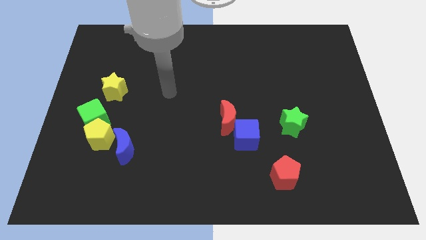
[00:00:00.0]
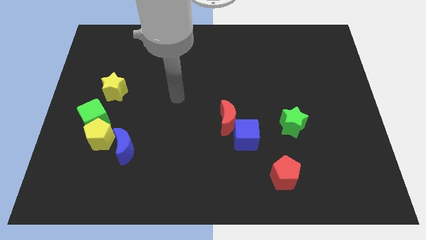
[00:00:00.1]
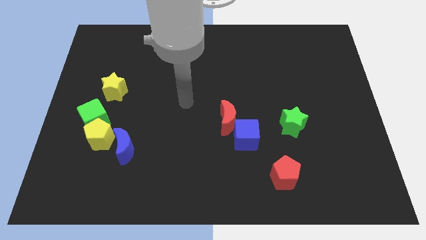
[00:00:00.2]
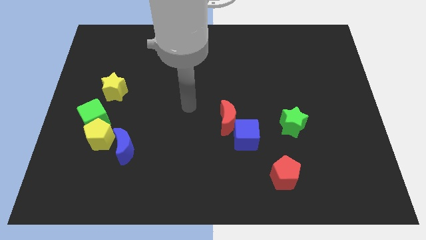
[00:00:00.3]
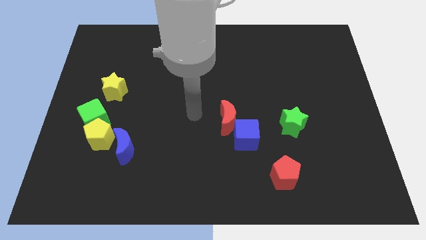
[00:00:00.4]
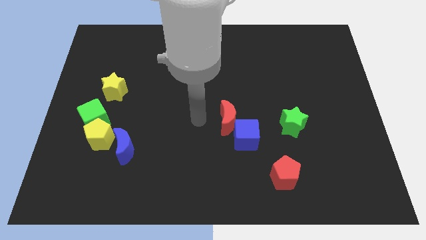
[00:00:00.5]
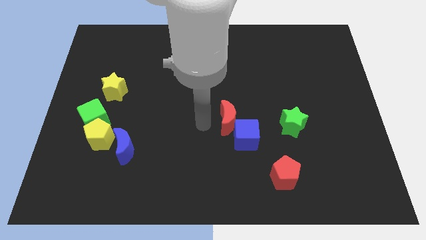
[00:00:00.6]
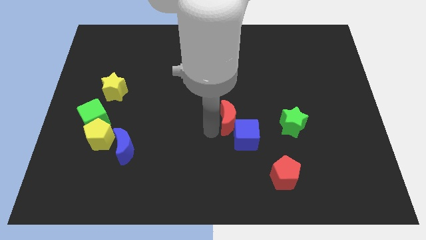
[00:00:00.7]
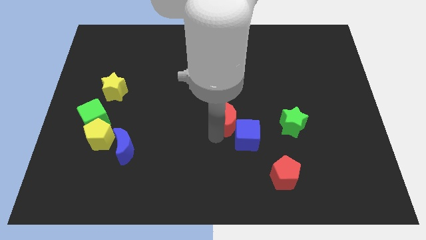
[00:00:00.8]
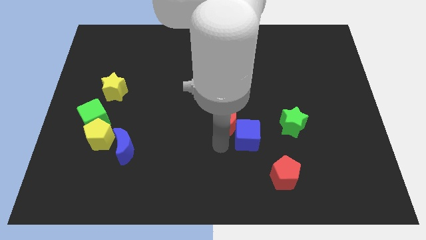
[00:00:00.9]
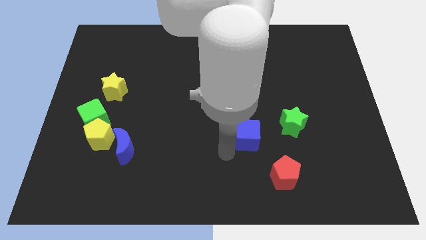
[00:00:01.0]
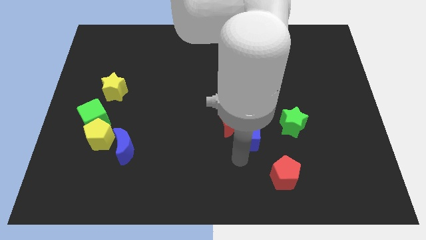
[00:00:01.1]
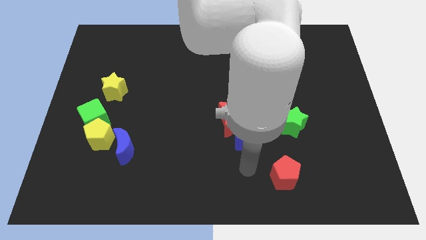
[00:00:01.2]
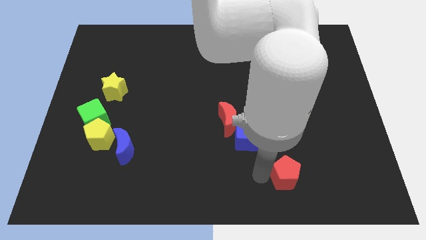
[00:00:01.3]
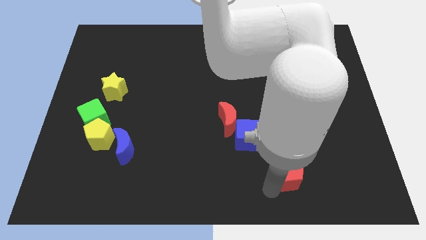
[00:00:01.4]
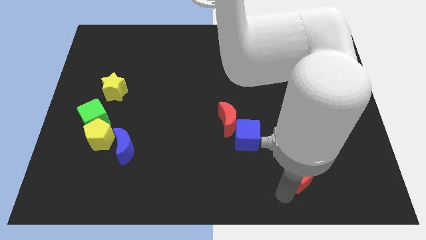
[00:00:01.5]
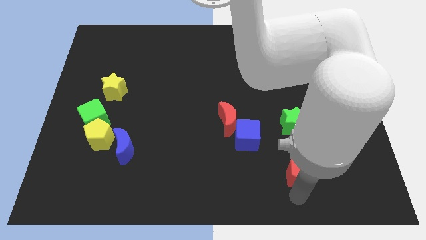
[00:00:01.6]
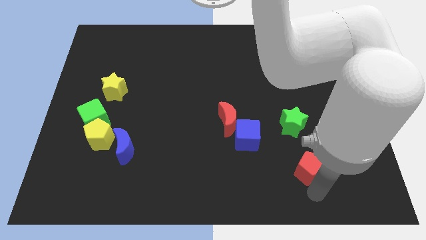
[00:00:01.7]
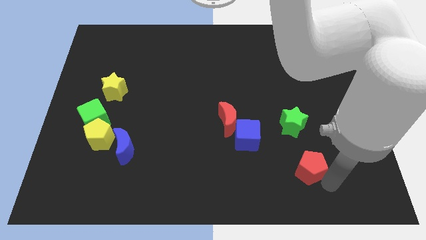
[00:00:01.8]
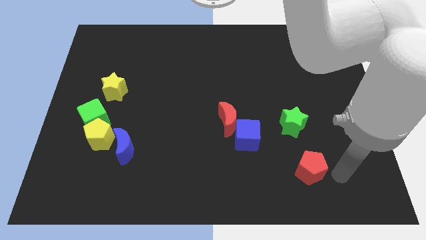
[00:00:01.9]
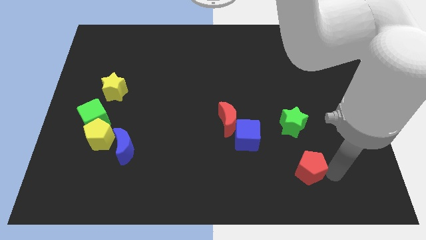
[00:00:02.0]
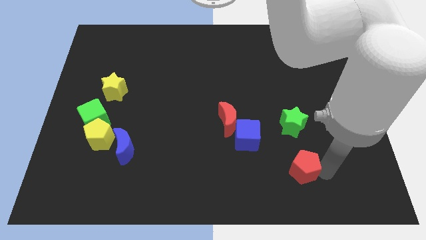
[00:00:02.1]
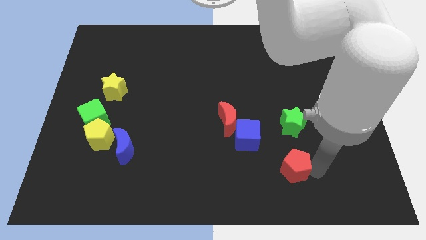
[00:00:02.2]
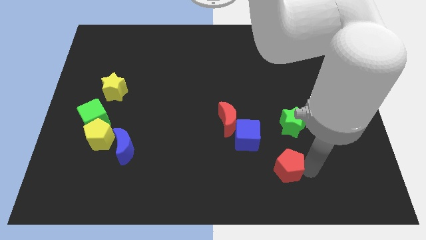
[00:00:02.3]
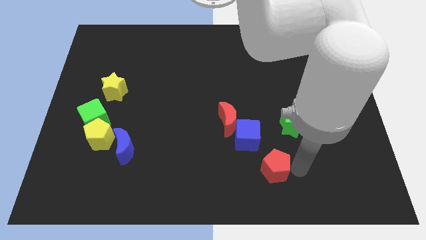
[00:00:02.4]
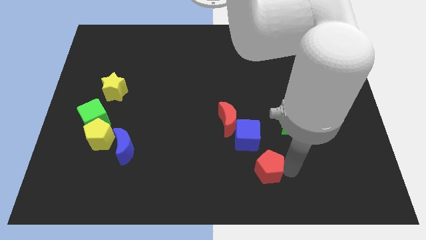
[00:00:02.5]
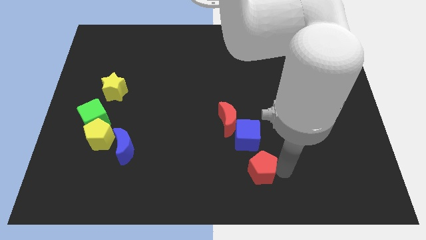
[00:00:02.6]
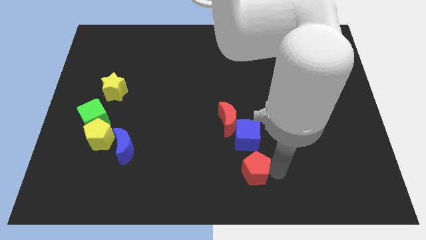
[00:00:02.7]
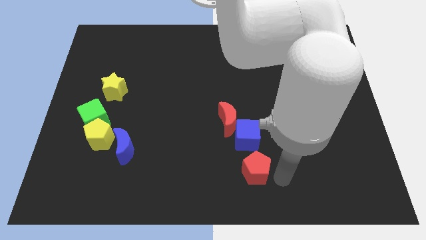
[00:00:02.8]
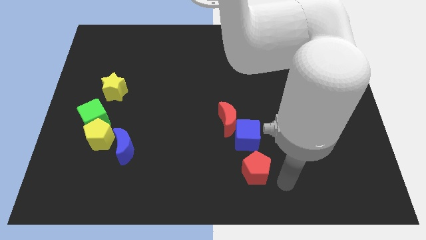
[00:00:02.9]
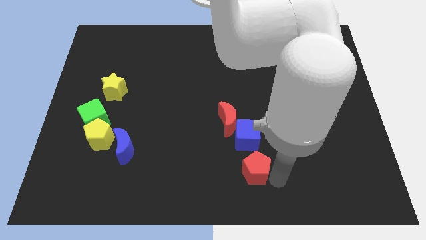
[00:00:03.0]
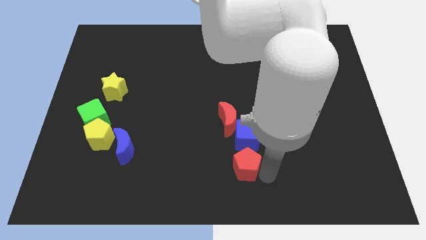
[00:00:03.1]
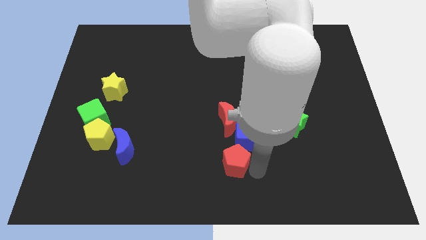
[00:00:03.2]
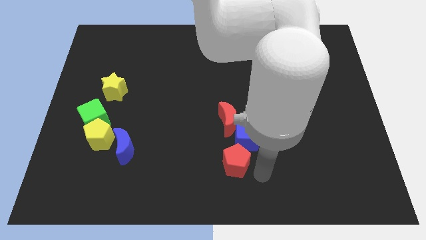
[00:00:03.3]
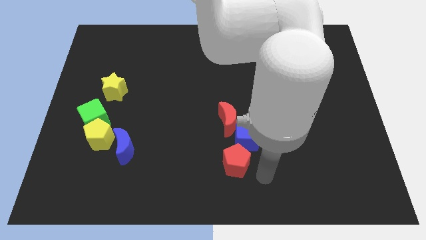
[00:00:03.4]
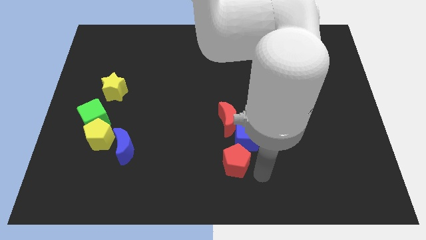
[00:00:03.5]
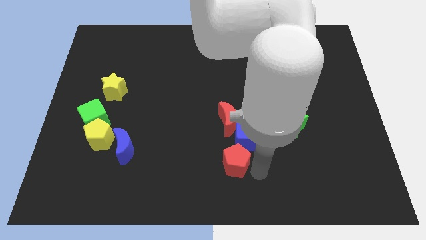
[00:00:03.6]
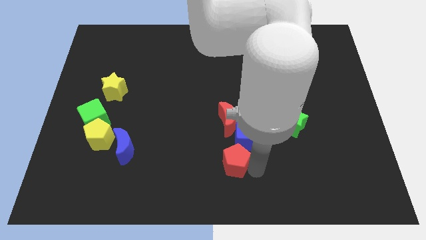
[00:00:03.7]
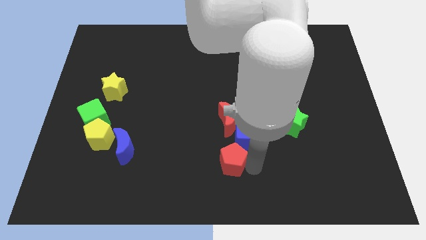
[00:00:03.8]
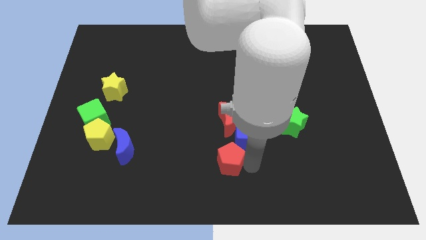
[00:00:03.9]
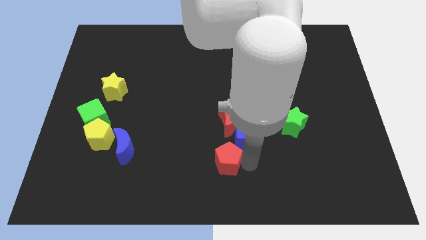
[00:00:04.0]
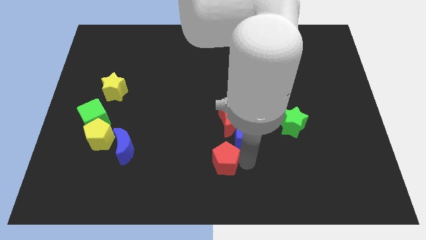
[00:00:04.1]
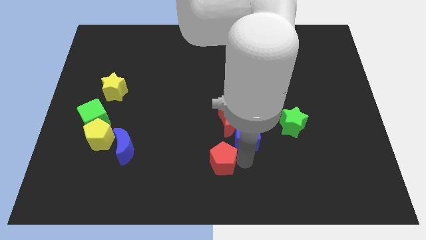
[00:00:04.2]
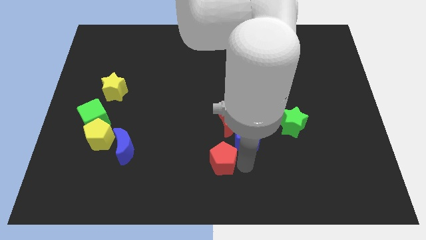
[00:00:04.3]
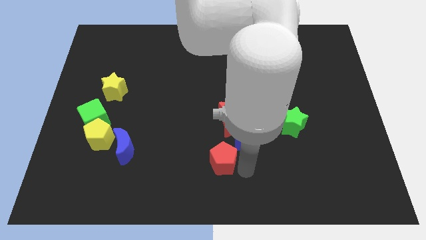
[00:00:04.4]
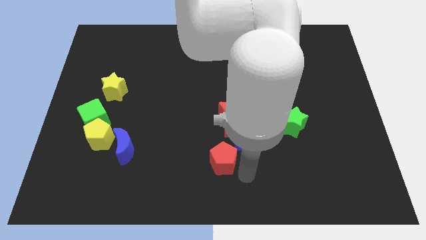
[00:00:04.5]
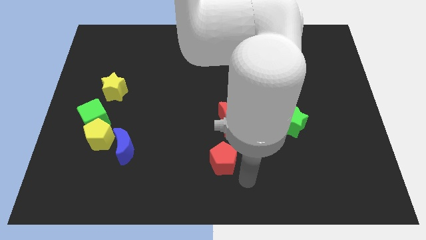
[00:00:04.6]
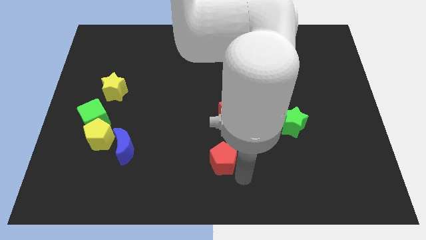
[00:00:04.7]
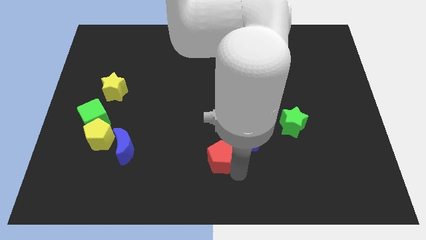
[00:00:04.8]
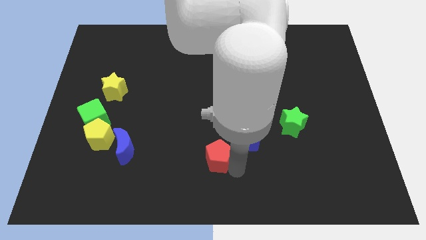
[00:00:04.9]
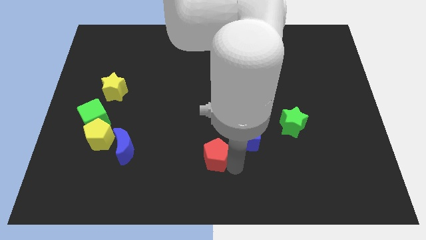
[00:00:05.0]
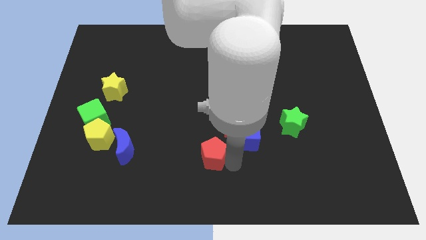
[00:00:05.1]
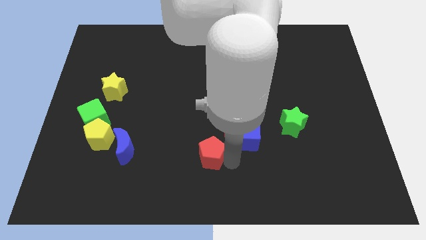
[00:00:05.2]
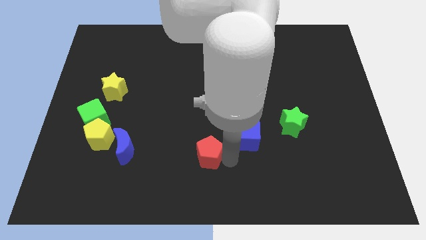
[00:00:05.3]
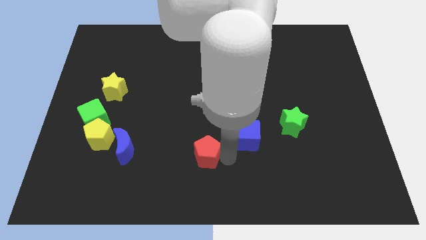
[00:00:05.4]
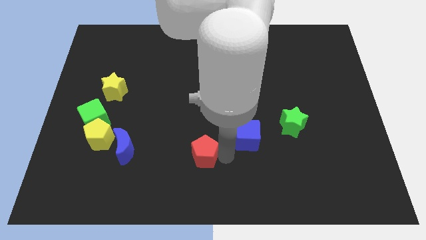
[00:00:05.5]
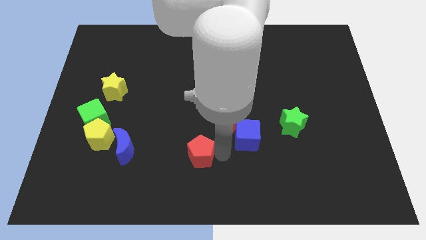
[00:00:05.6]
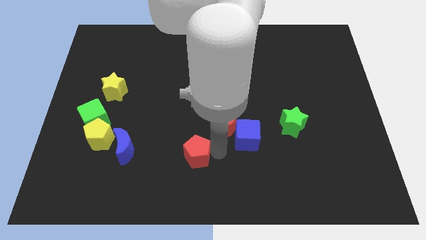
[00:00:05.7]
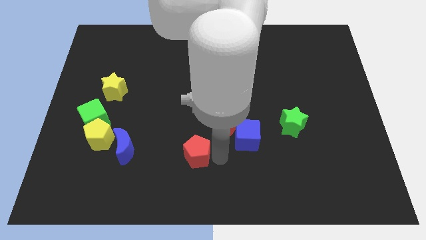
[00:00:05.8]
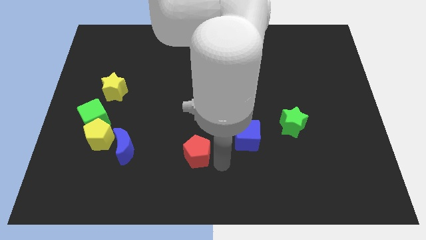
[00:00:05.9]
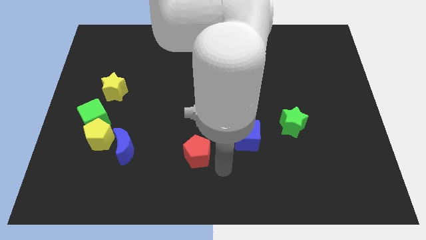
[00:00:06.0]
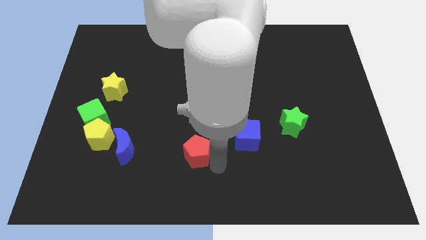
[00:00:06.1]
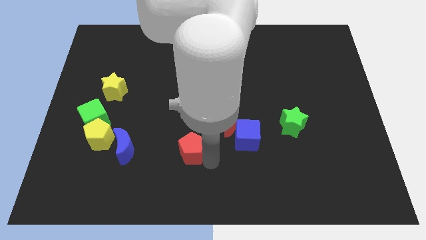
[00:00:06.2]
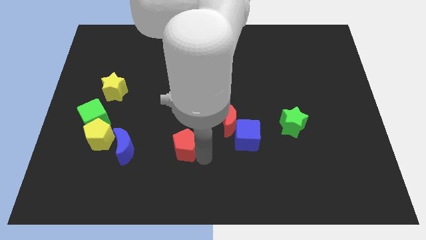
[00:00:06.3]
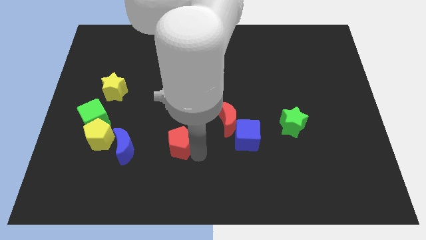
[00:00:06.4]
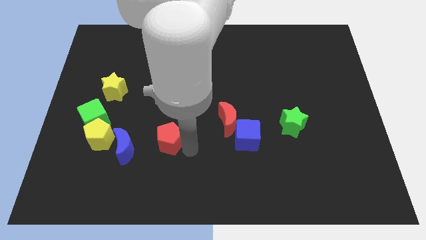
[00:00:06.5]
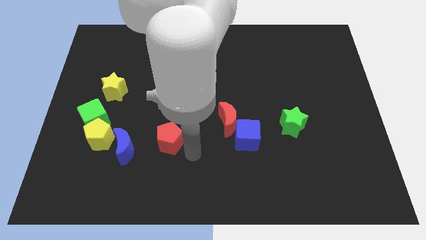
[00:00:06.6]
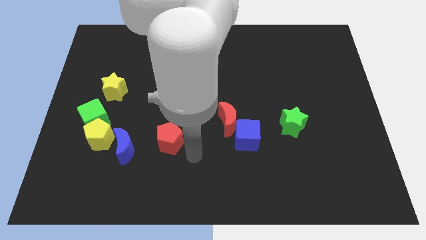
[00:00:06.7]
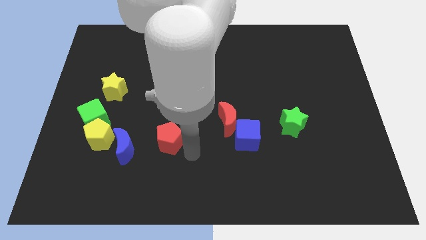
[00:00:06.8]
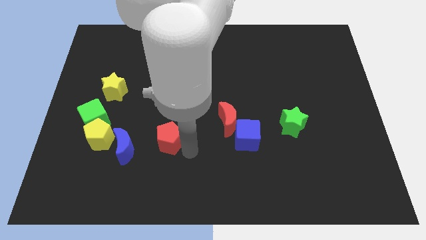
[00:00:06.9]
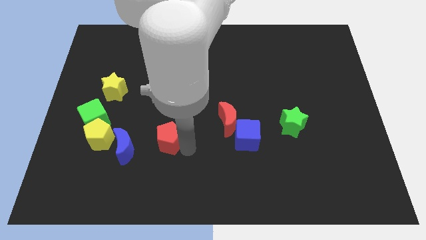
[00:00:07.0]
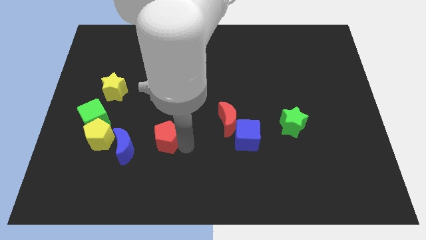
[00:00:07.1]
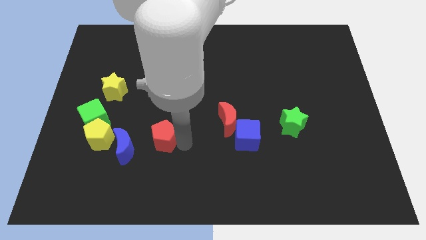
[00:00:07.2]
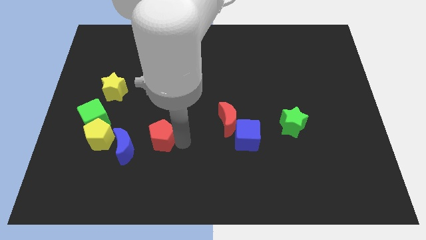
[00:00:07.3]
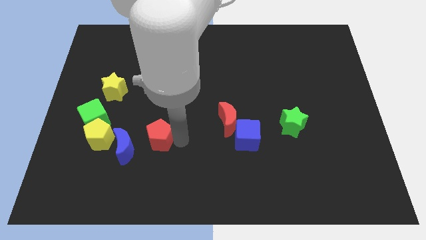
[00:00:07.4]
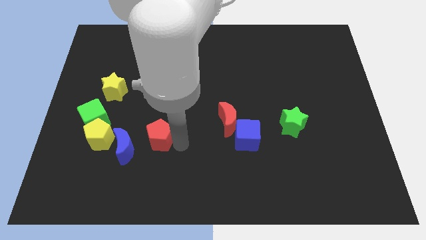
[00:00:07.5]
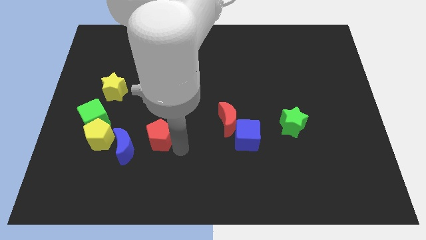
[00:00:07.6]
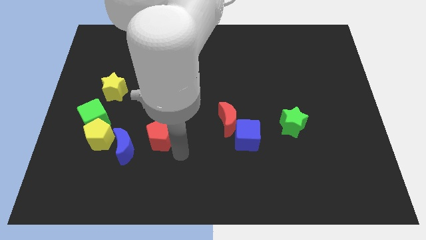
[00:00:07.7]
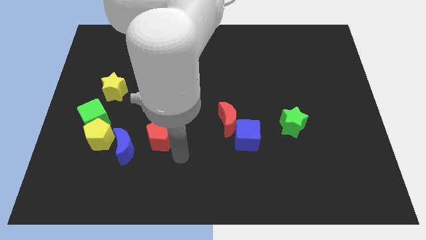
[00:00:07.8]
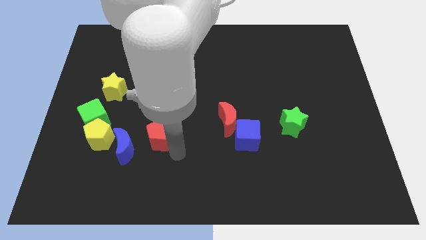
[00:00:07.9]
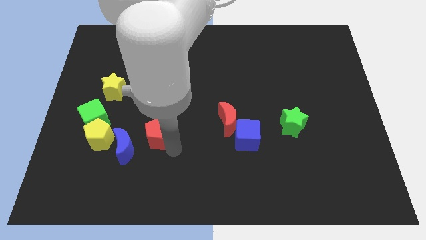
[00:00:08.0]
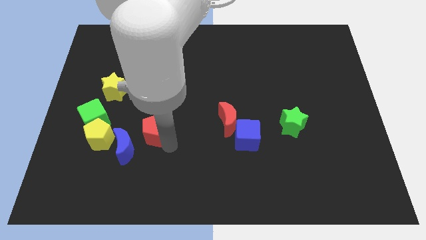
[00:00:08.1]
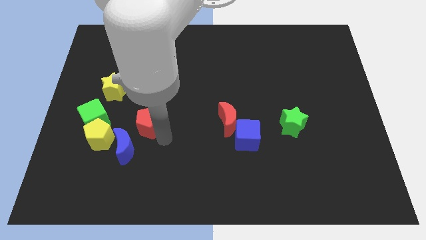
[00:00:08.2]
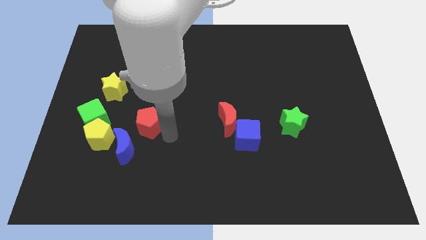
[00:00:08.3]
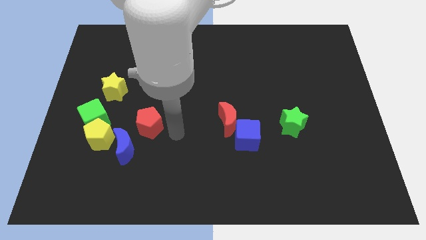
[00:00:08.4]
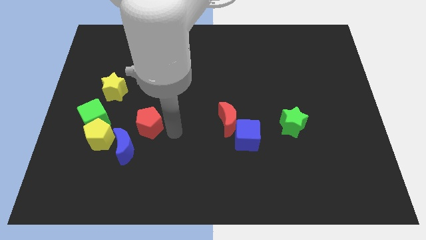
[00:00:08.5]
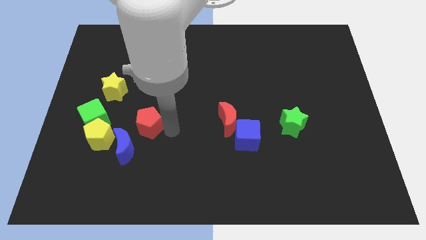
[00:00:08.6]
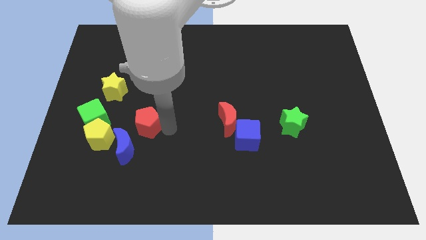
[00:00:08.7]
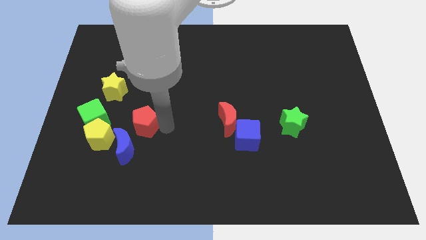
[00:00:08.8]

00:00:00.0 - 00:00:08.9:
push the red pentagon to the top right of the yellow pentagon
